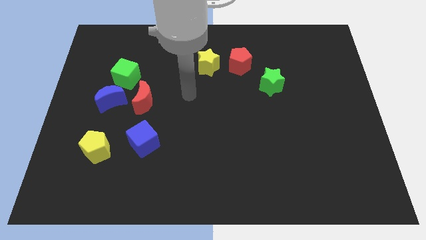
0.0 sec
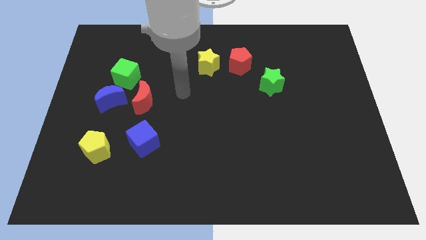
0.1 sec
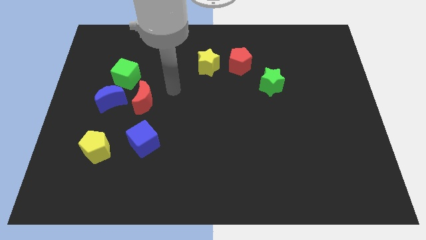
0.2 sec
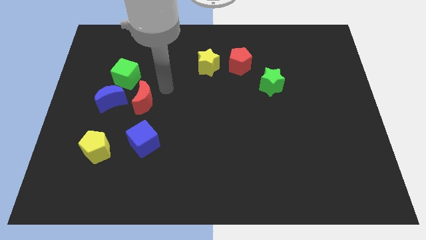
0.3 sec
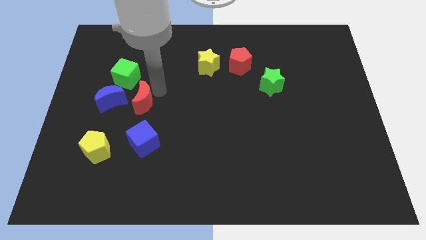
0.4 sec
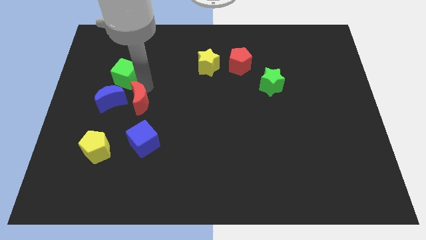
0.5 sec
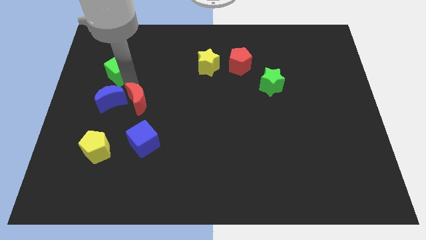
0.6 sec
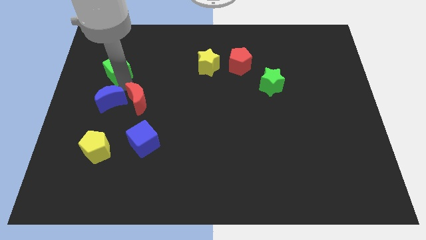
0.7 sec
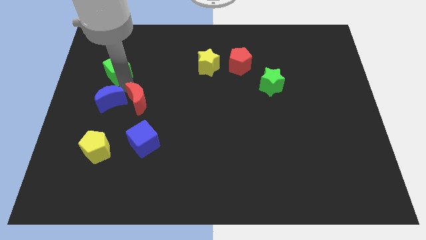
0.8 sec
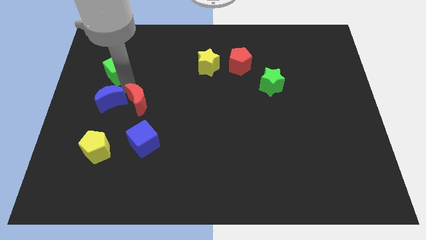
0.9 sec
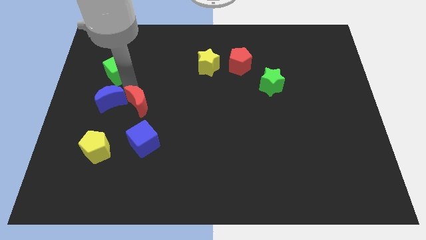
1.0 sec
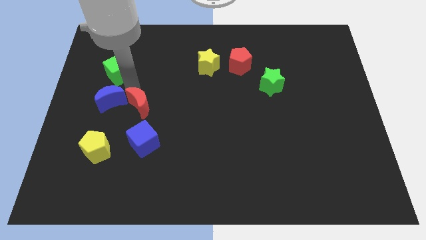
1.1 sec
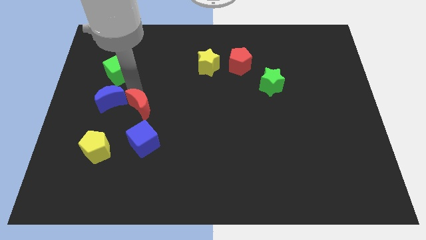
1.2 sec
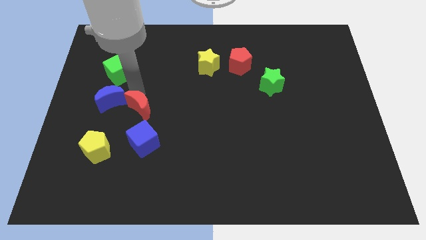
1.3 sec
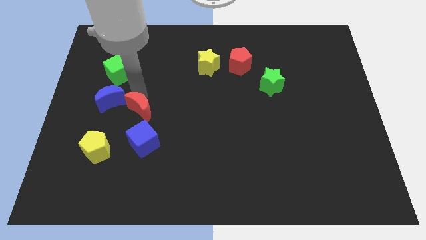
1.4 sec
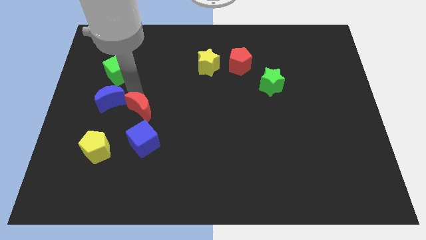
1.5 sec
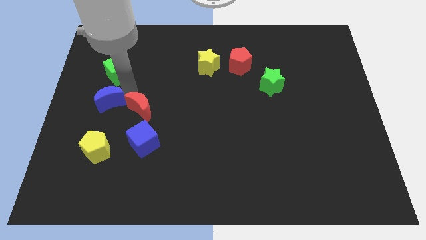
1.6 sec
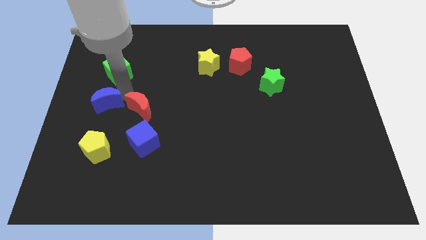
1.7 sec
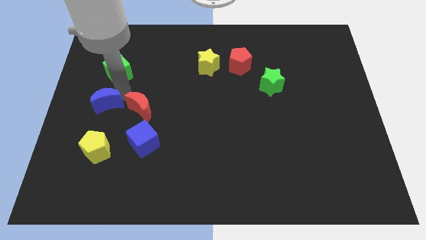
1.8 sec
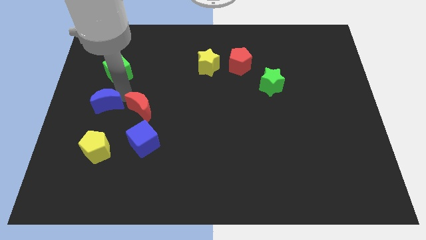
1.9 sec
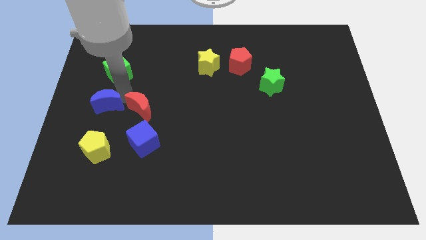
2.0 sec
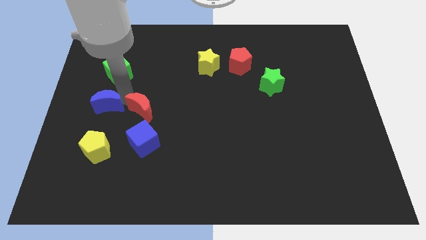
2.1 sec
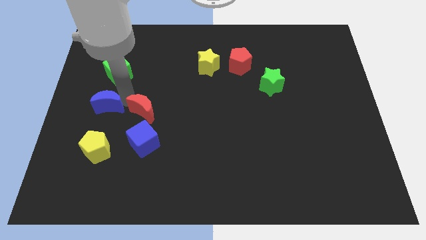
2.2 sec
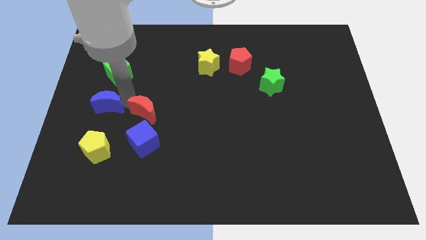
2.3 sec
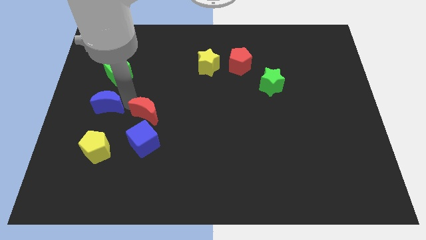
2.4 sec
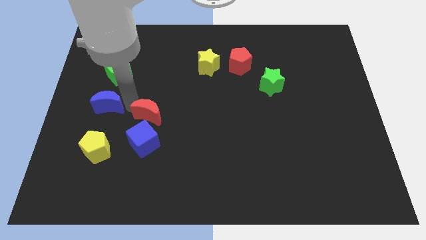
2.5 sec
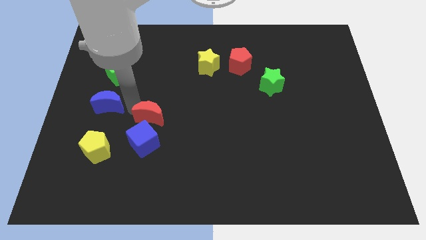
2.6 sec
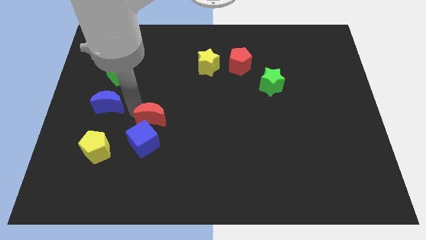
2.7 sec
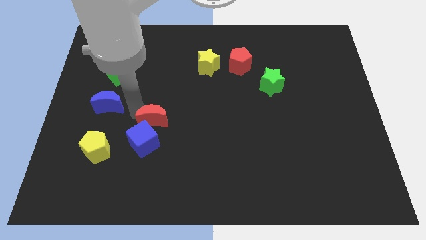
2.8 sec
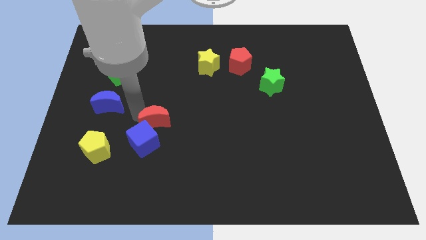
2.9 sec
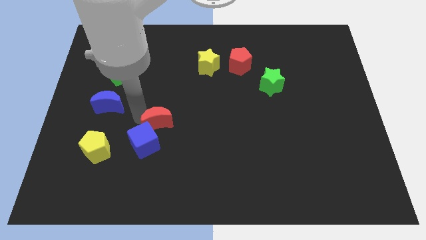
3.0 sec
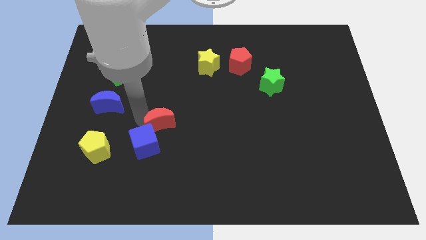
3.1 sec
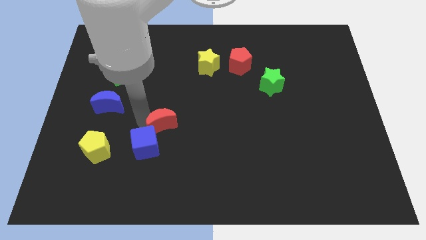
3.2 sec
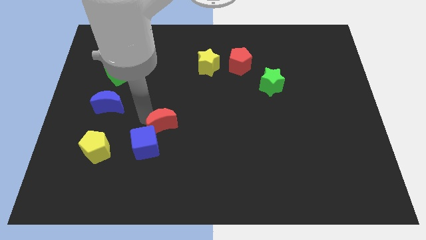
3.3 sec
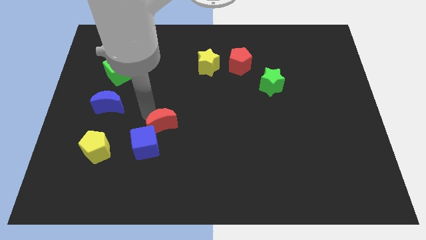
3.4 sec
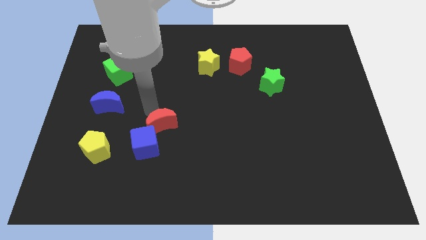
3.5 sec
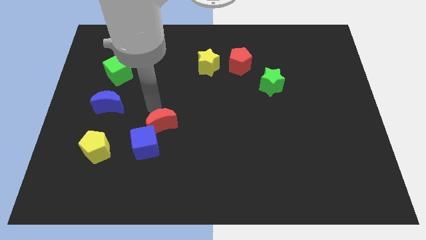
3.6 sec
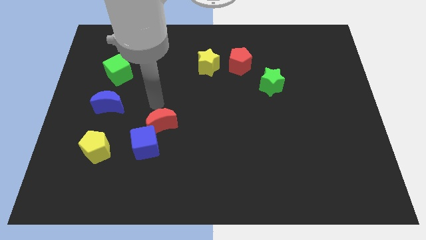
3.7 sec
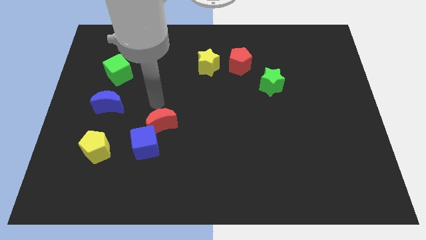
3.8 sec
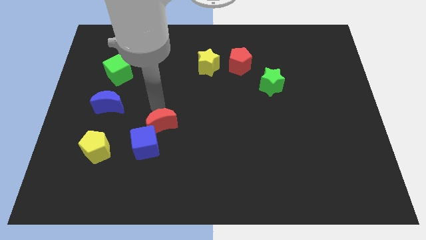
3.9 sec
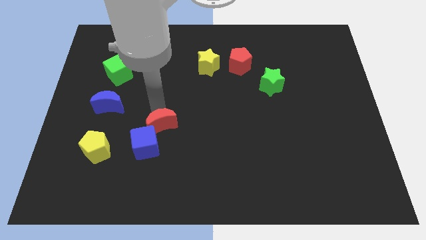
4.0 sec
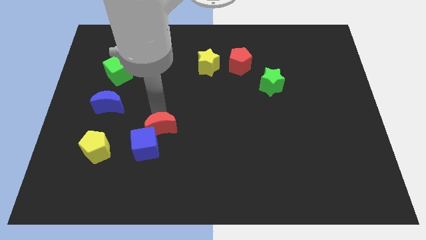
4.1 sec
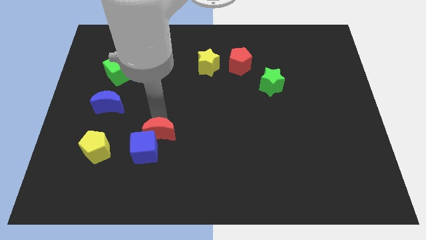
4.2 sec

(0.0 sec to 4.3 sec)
move the red moon right of the yellow pentagon

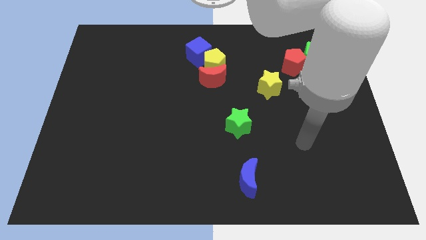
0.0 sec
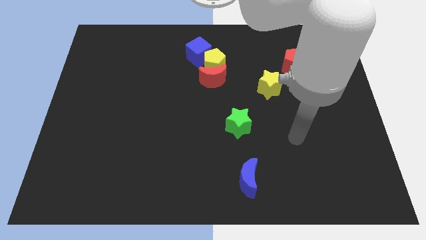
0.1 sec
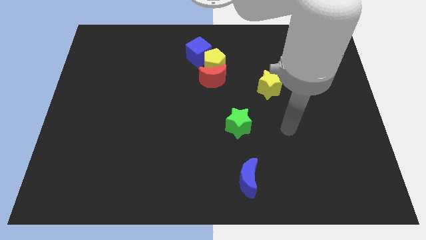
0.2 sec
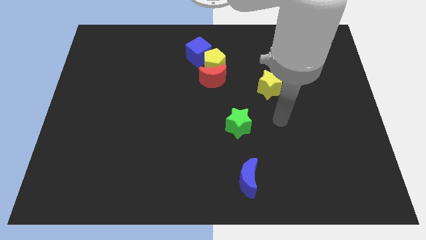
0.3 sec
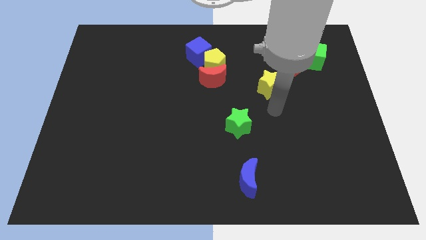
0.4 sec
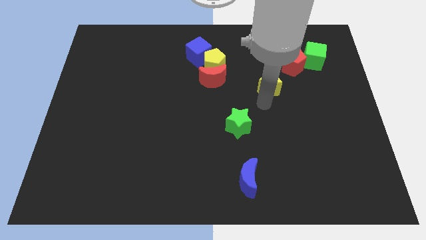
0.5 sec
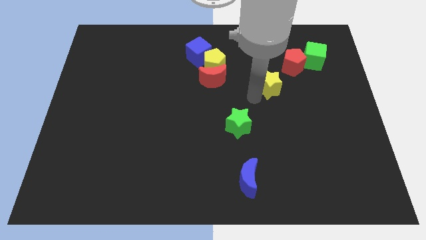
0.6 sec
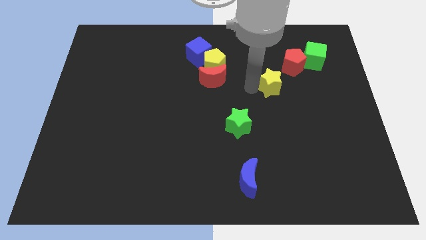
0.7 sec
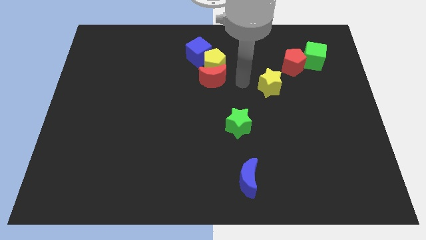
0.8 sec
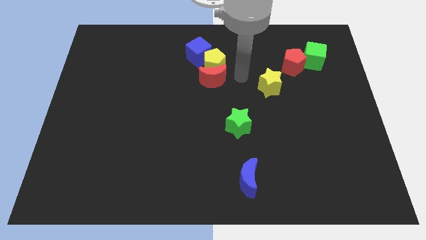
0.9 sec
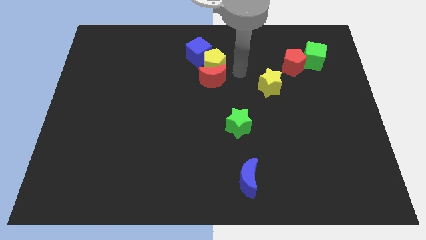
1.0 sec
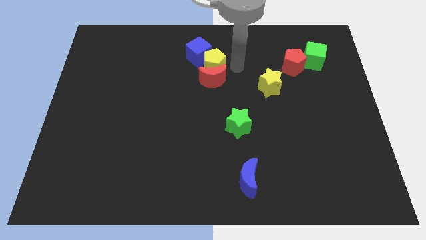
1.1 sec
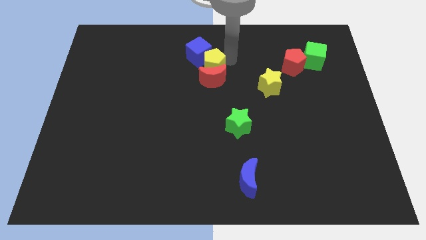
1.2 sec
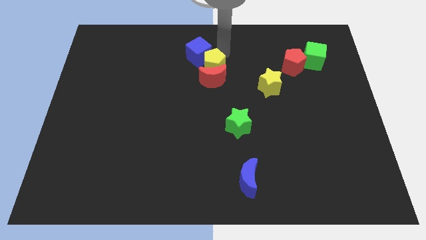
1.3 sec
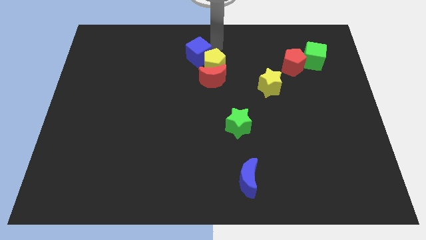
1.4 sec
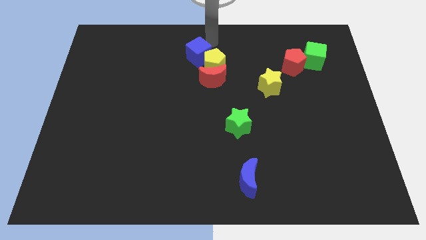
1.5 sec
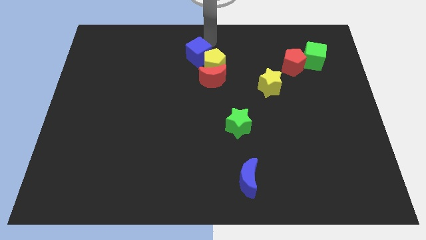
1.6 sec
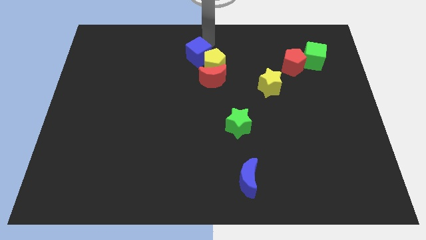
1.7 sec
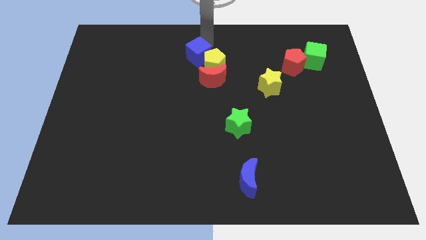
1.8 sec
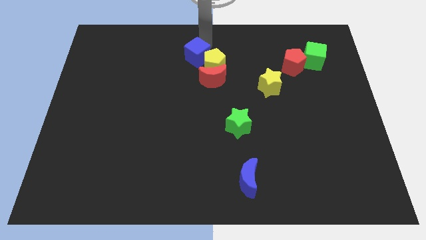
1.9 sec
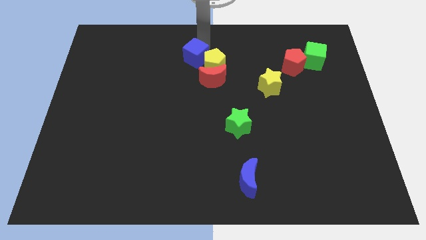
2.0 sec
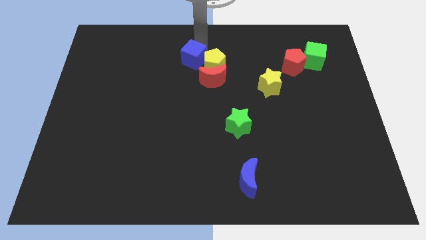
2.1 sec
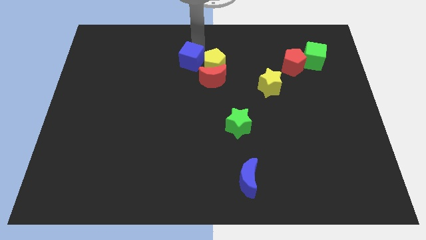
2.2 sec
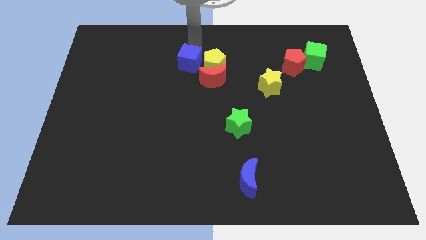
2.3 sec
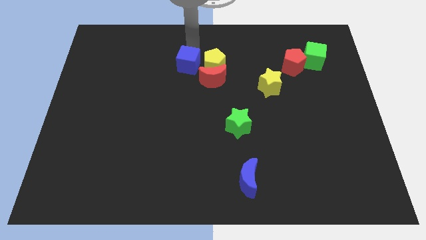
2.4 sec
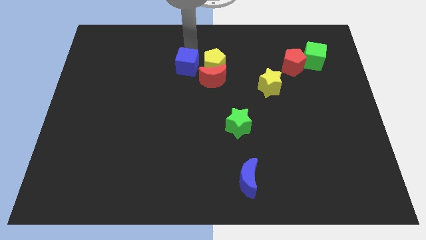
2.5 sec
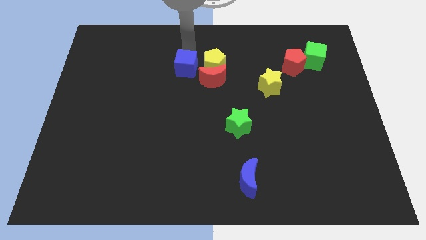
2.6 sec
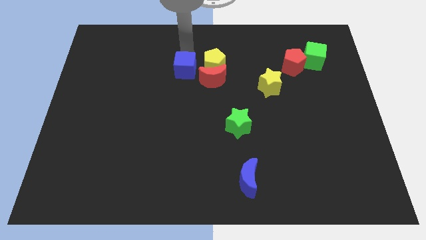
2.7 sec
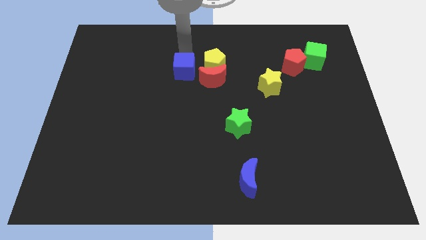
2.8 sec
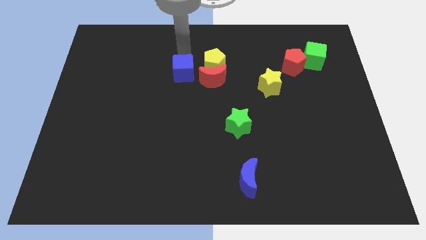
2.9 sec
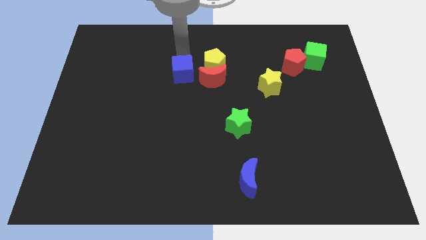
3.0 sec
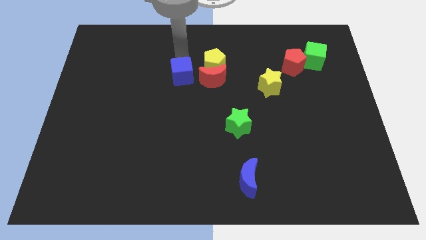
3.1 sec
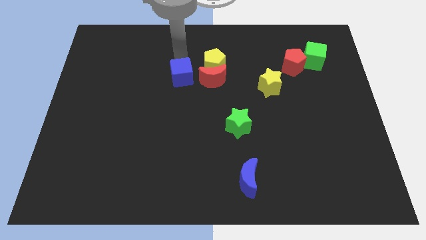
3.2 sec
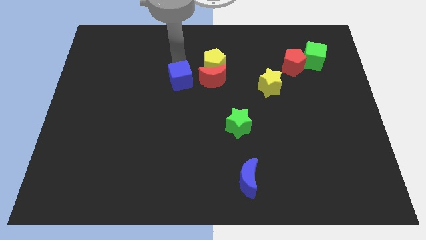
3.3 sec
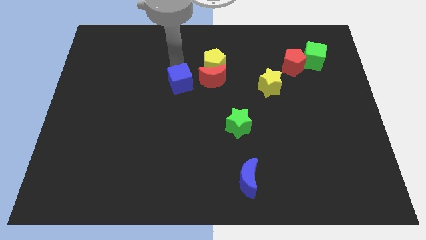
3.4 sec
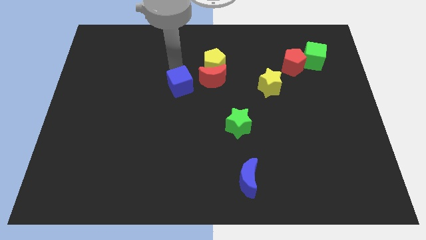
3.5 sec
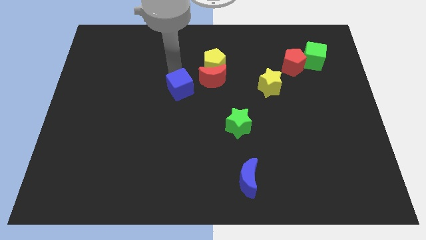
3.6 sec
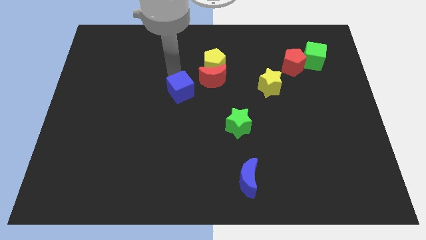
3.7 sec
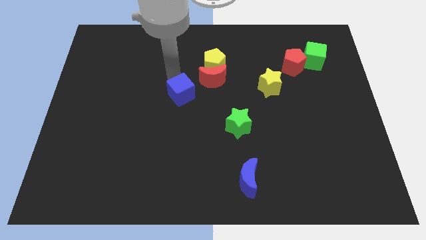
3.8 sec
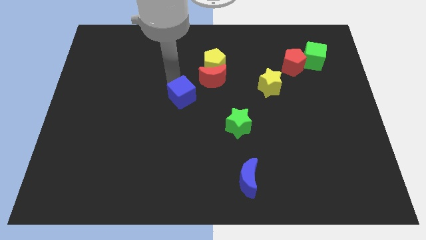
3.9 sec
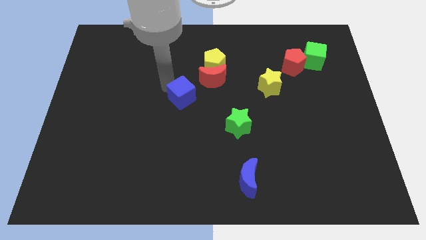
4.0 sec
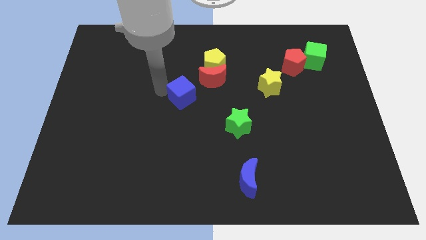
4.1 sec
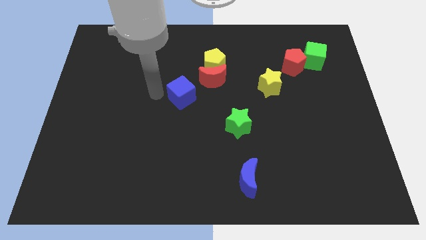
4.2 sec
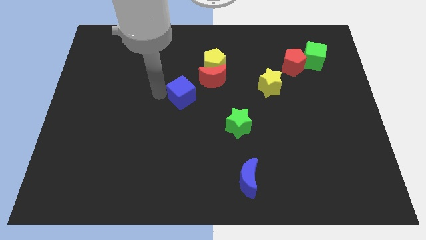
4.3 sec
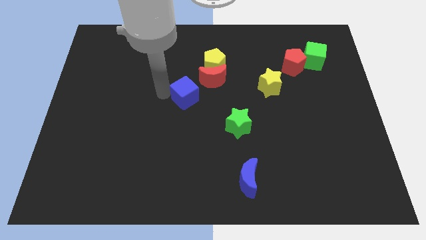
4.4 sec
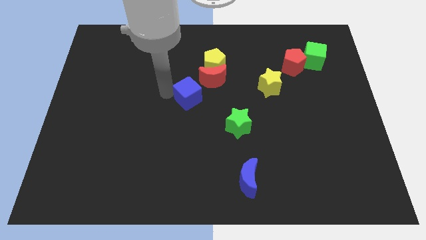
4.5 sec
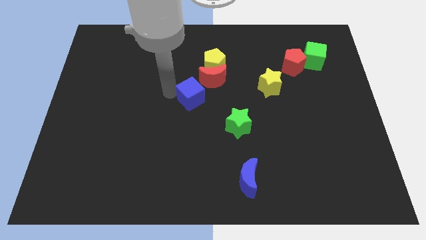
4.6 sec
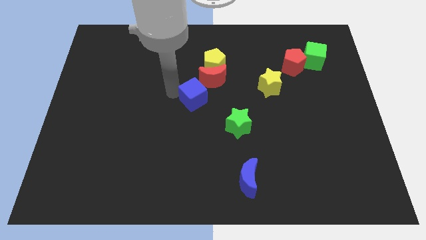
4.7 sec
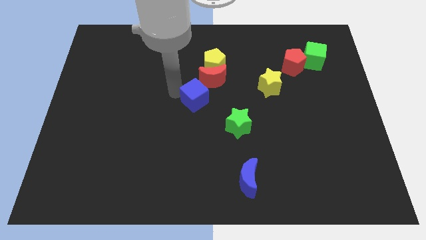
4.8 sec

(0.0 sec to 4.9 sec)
put the blue cube to the bottom side of the yellow pentagon
